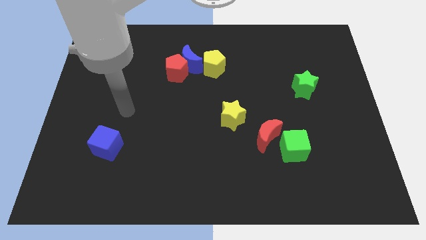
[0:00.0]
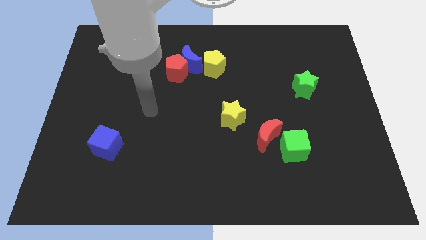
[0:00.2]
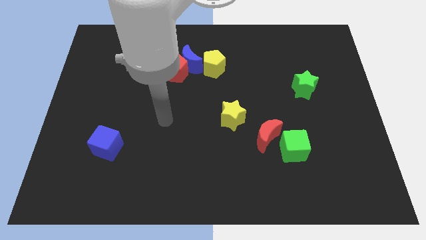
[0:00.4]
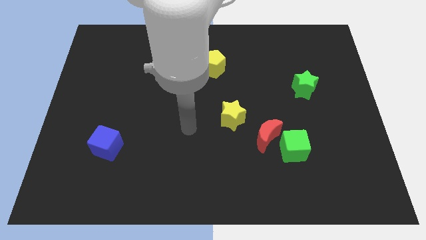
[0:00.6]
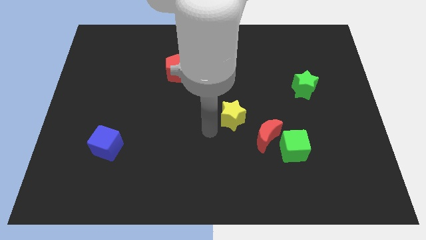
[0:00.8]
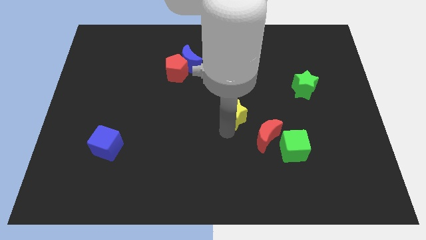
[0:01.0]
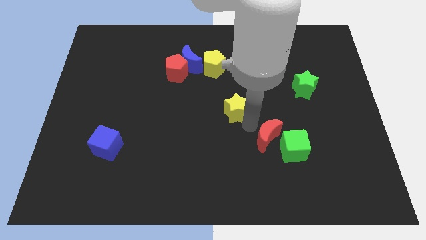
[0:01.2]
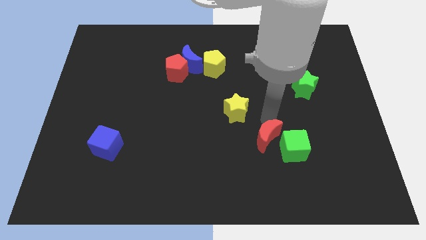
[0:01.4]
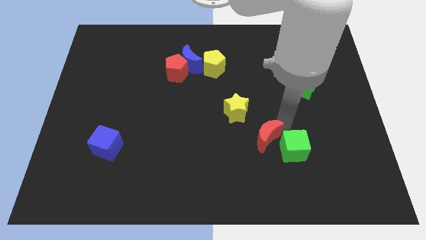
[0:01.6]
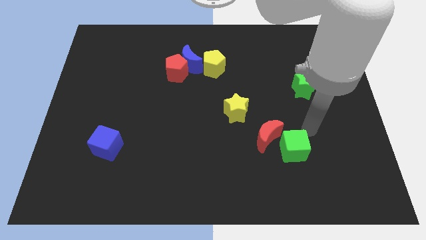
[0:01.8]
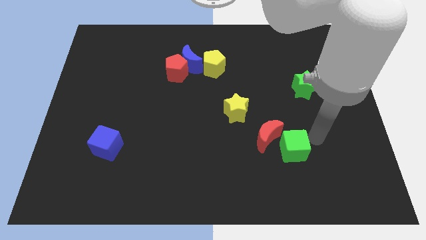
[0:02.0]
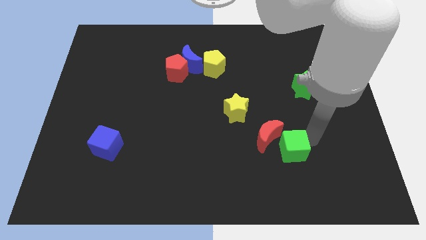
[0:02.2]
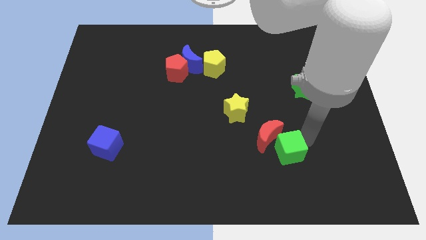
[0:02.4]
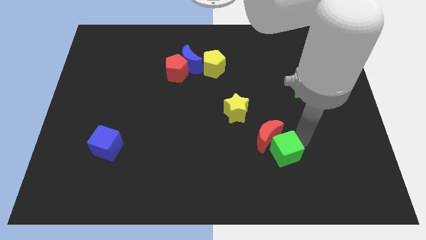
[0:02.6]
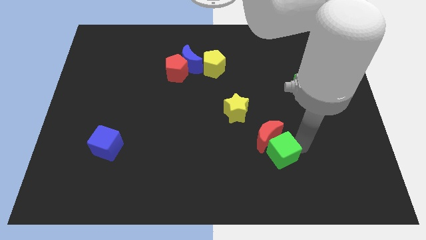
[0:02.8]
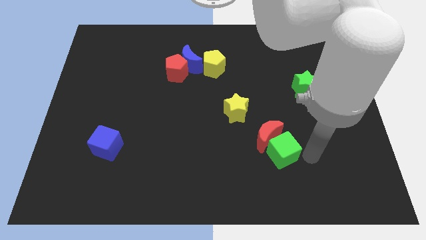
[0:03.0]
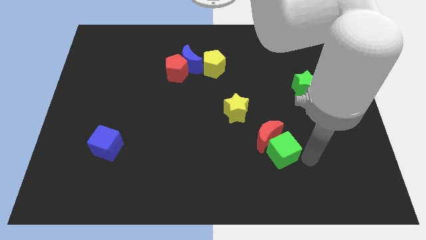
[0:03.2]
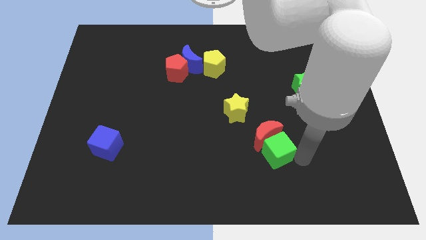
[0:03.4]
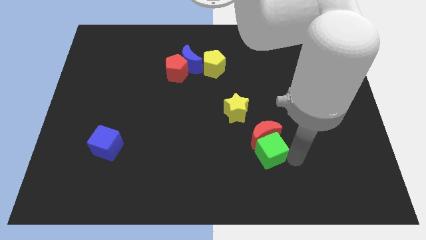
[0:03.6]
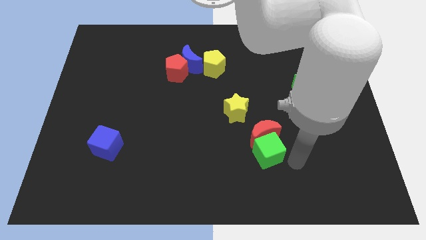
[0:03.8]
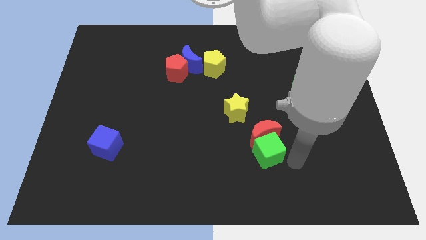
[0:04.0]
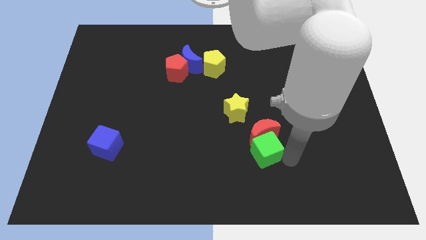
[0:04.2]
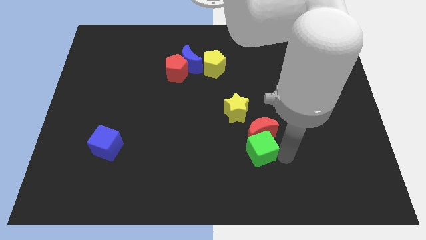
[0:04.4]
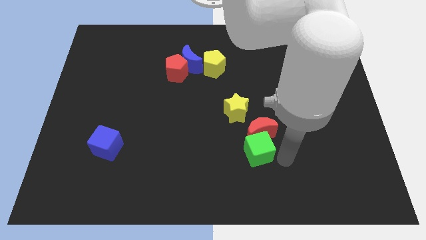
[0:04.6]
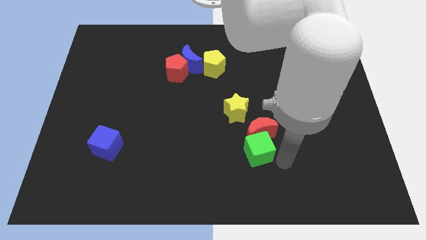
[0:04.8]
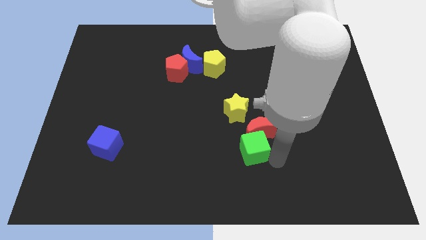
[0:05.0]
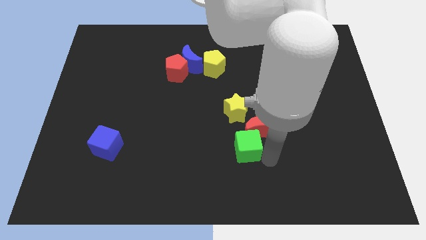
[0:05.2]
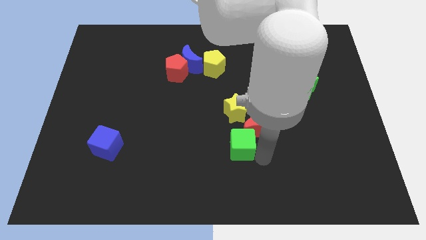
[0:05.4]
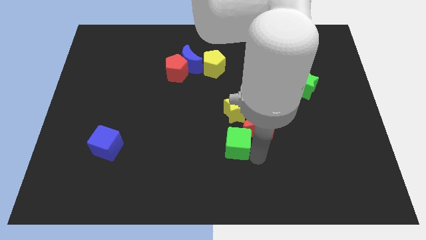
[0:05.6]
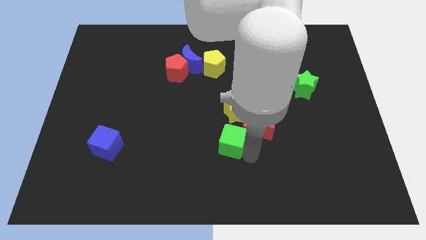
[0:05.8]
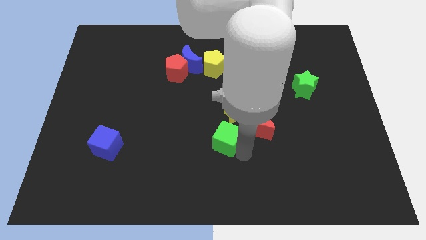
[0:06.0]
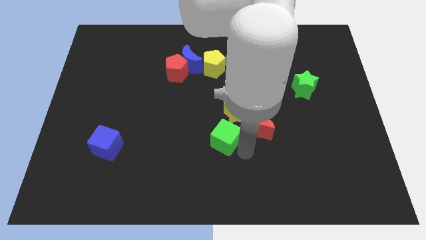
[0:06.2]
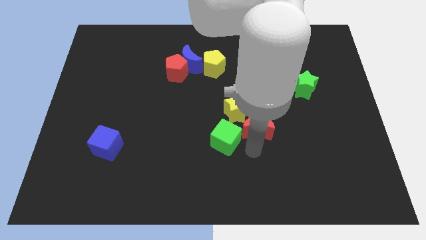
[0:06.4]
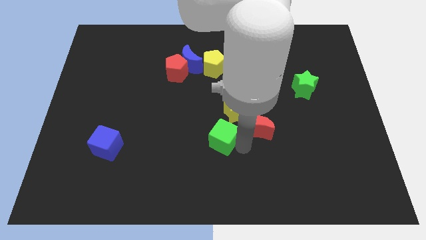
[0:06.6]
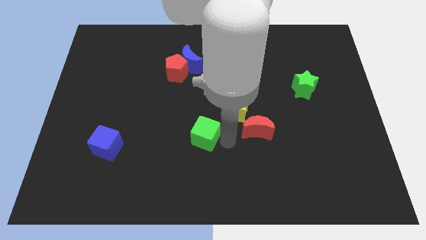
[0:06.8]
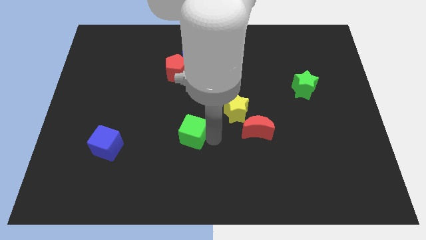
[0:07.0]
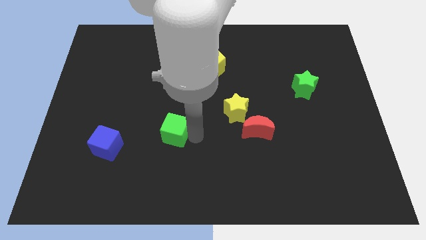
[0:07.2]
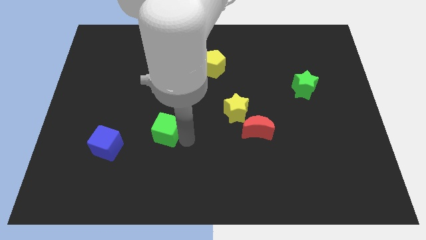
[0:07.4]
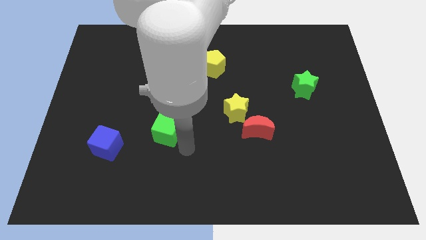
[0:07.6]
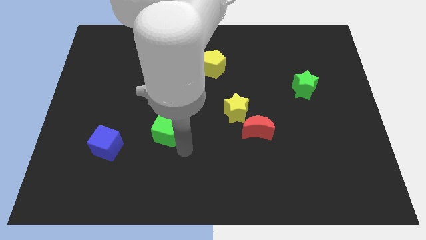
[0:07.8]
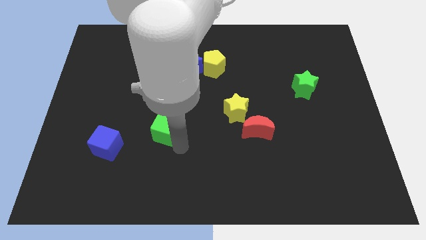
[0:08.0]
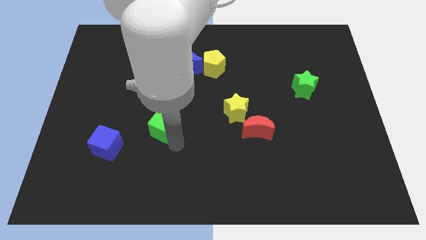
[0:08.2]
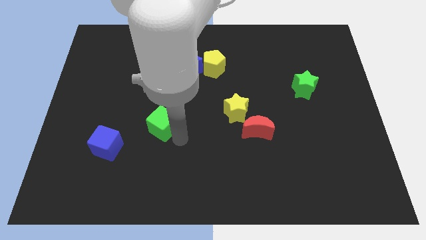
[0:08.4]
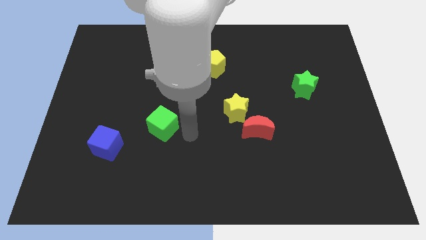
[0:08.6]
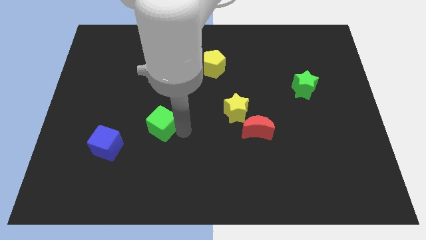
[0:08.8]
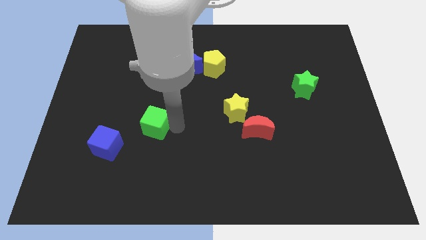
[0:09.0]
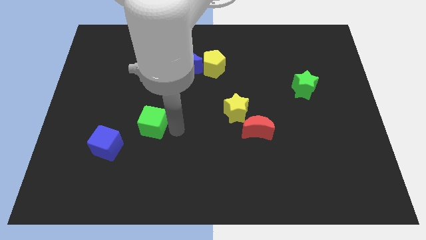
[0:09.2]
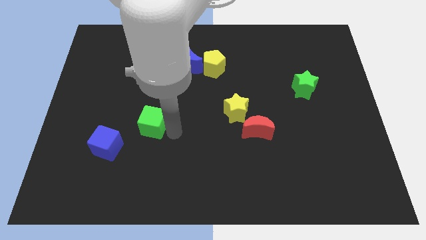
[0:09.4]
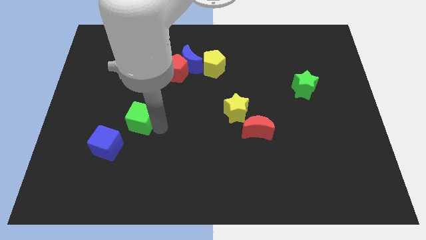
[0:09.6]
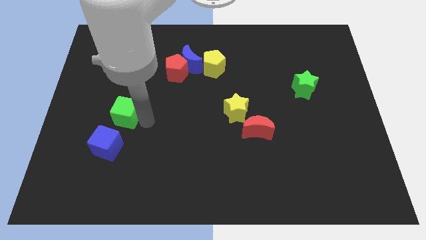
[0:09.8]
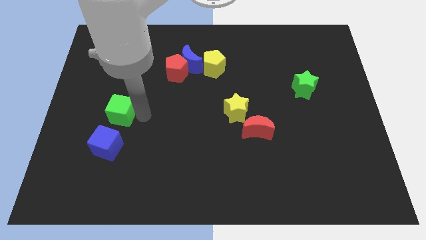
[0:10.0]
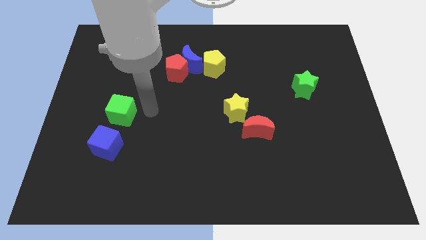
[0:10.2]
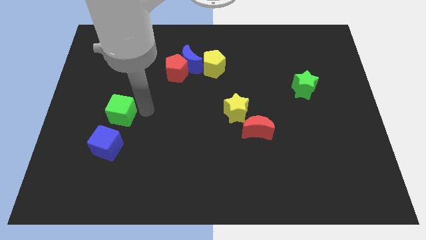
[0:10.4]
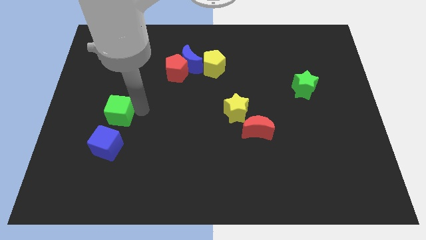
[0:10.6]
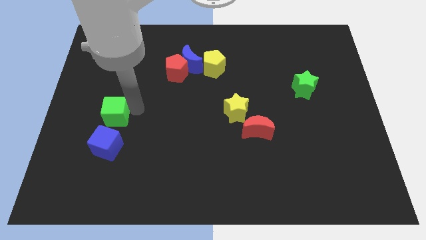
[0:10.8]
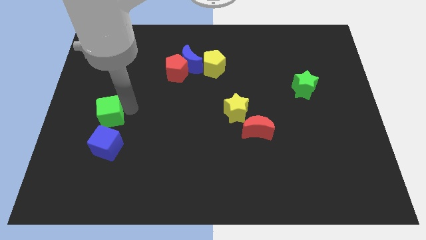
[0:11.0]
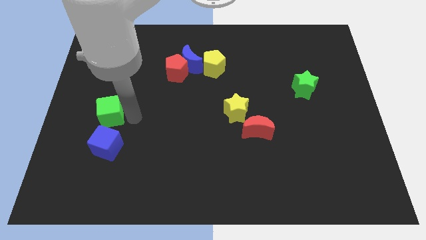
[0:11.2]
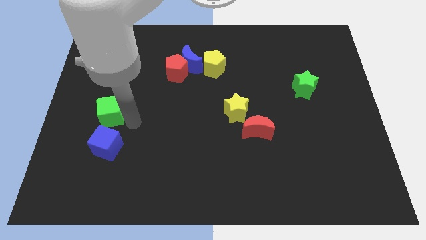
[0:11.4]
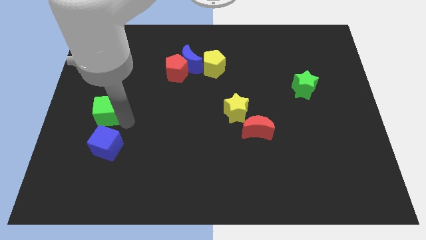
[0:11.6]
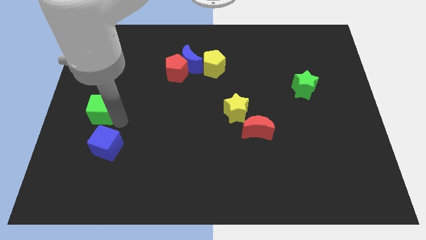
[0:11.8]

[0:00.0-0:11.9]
push the green cube to the center left

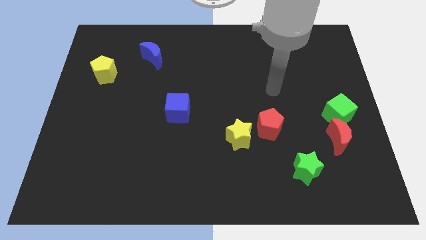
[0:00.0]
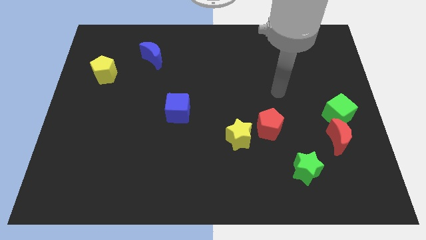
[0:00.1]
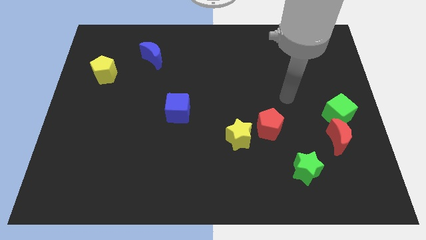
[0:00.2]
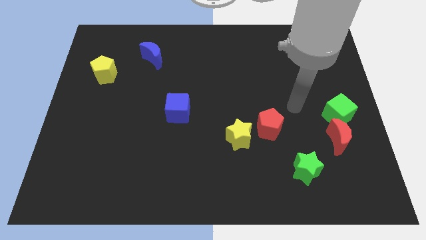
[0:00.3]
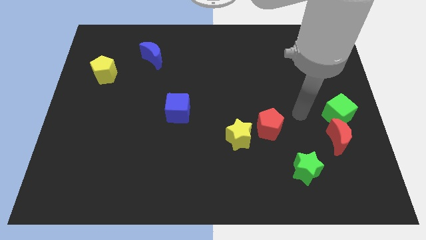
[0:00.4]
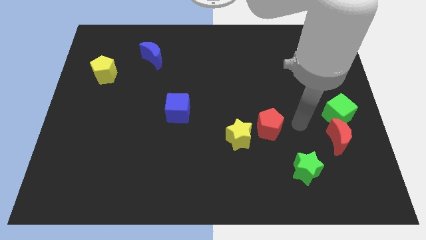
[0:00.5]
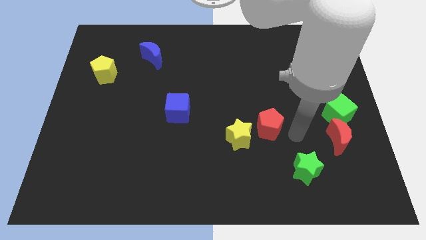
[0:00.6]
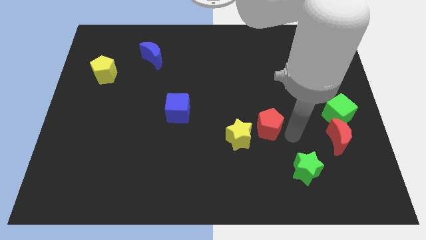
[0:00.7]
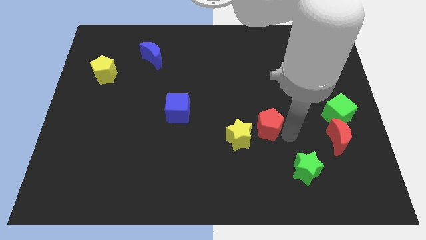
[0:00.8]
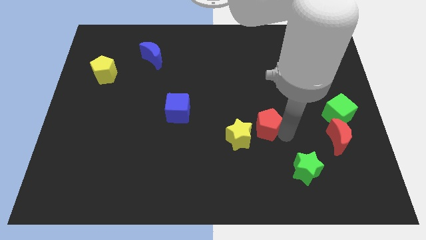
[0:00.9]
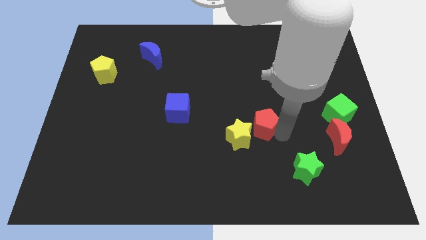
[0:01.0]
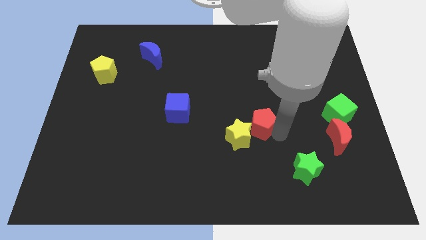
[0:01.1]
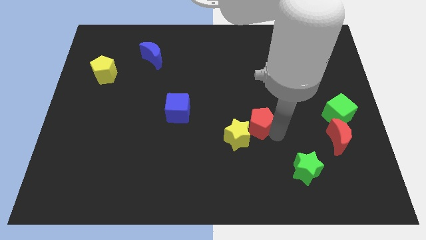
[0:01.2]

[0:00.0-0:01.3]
move the red pentagon to the center
